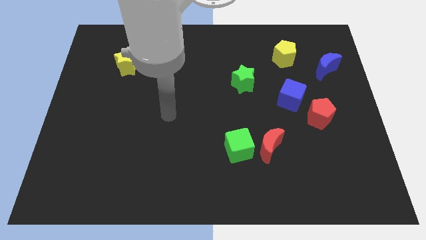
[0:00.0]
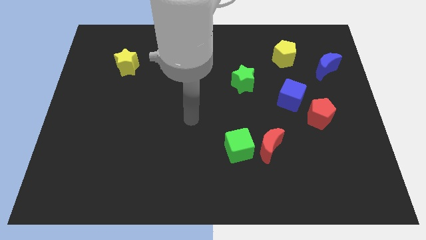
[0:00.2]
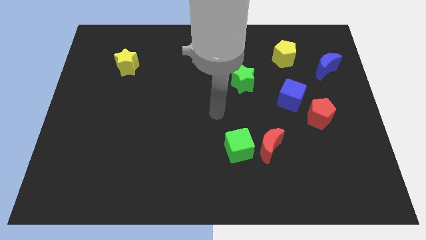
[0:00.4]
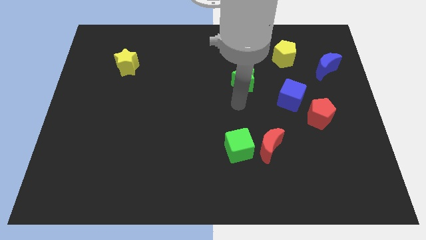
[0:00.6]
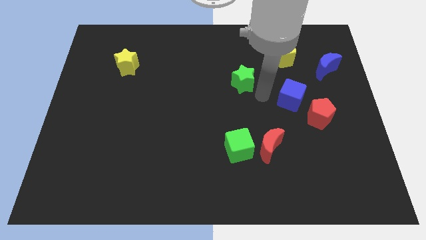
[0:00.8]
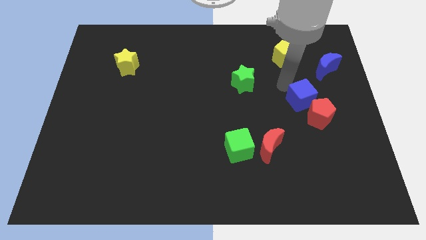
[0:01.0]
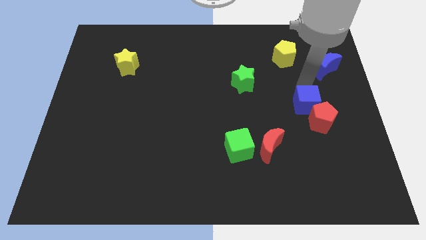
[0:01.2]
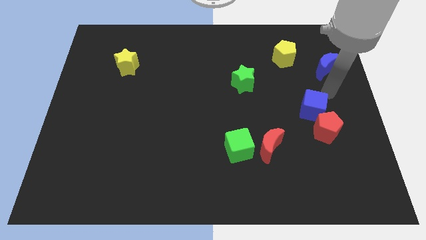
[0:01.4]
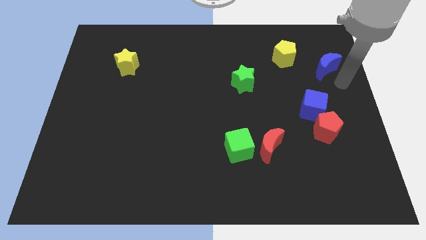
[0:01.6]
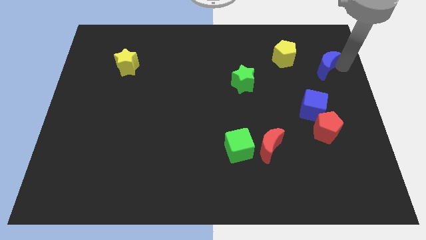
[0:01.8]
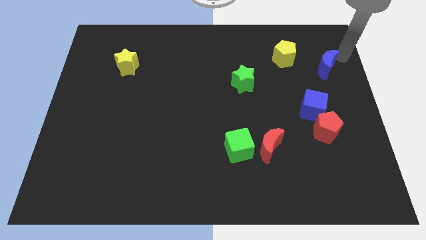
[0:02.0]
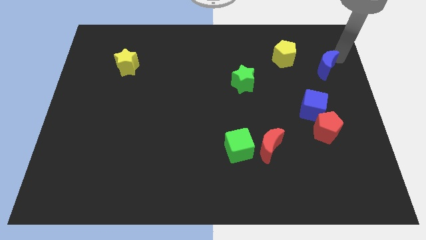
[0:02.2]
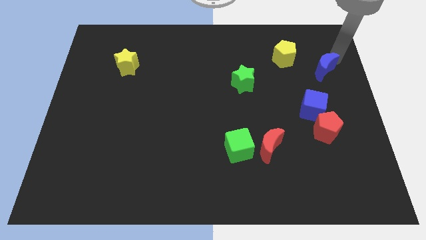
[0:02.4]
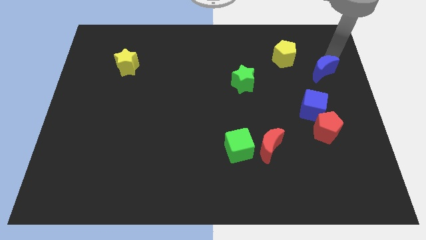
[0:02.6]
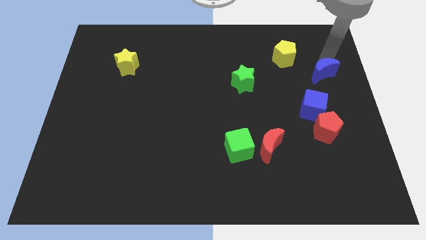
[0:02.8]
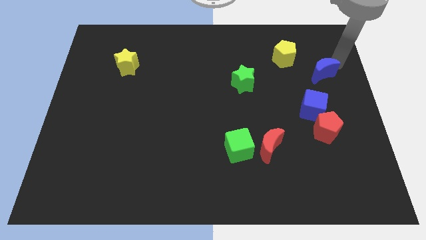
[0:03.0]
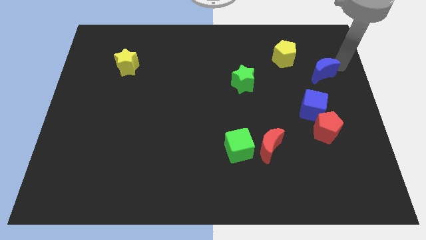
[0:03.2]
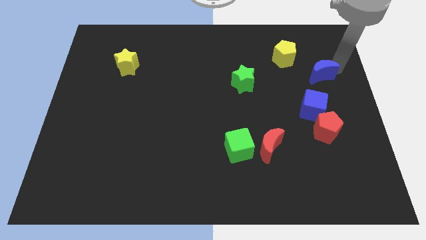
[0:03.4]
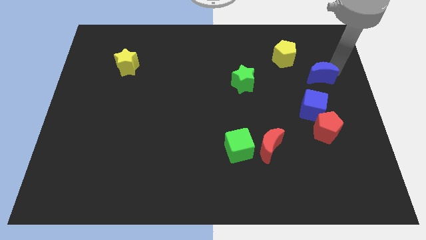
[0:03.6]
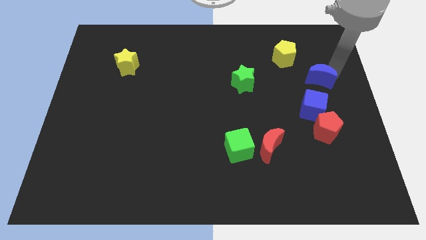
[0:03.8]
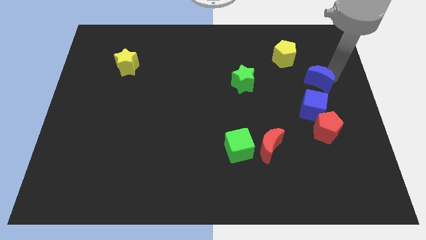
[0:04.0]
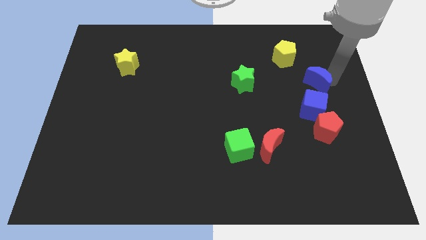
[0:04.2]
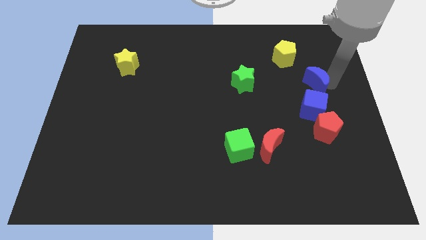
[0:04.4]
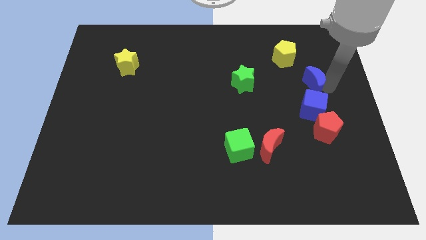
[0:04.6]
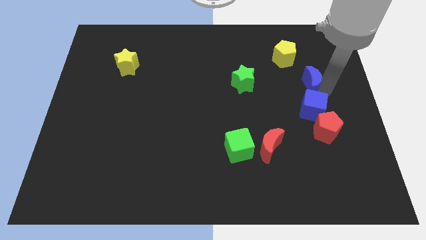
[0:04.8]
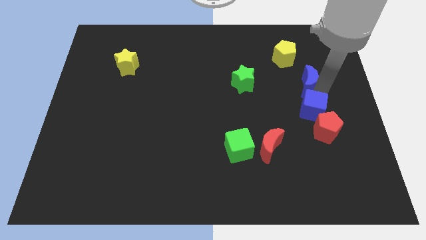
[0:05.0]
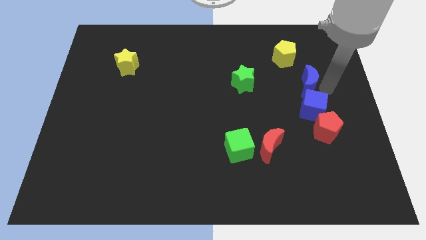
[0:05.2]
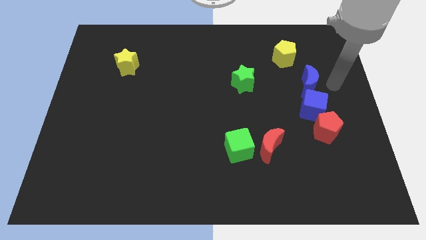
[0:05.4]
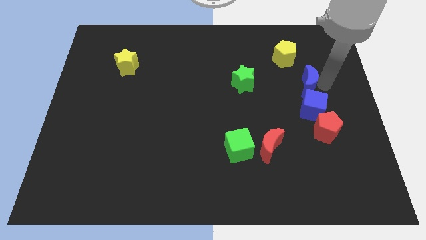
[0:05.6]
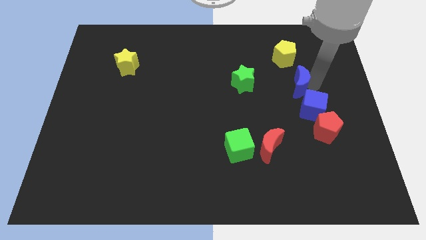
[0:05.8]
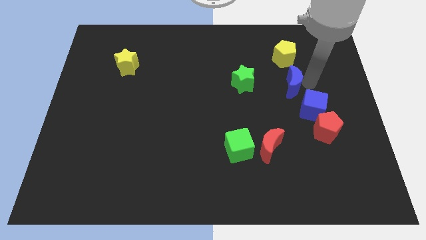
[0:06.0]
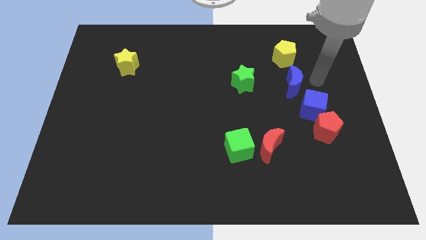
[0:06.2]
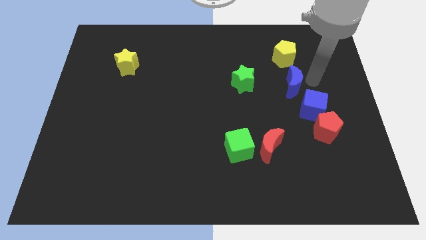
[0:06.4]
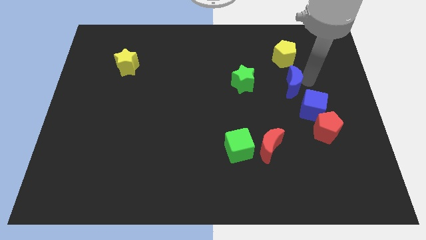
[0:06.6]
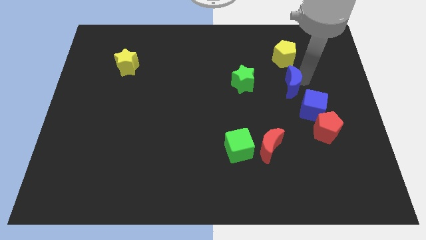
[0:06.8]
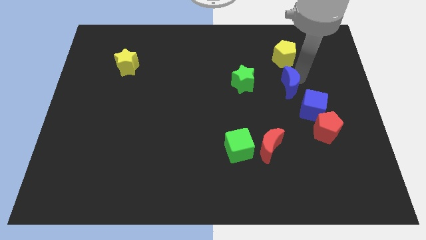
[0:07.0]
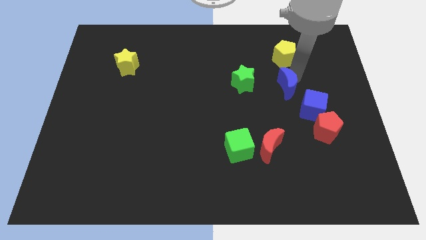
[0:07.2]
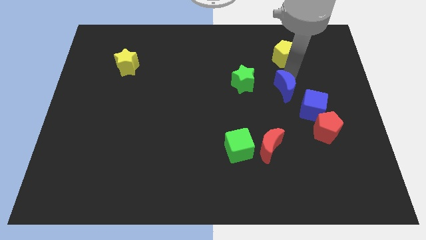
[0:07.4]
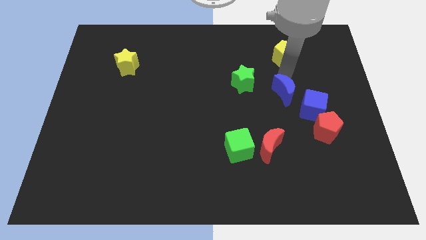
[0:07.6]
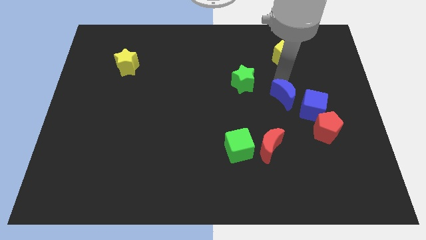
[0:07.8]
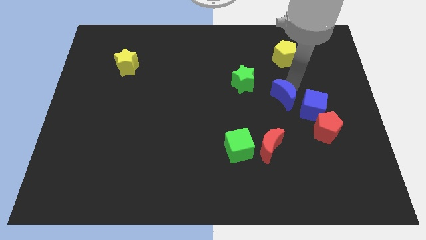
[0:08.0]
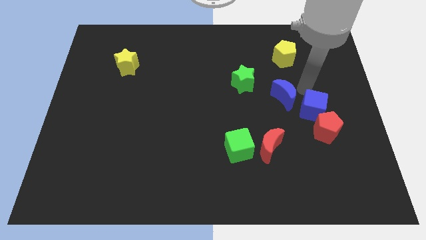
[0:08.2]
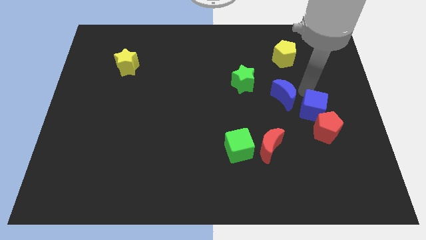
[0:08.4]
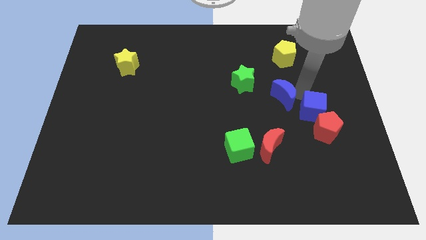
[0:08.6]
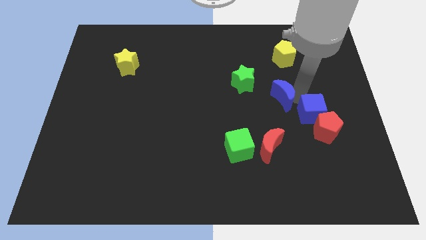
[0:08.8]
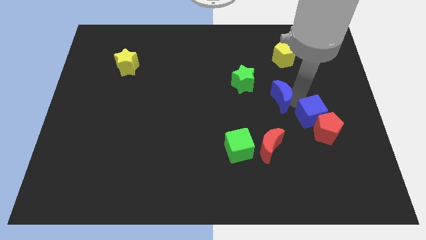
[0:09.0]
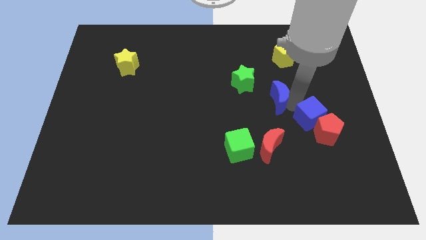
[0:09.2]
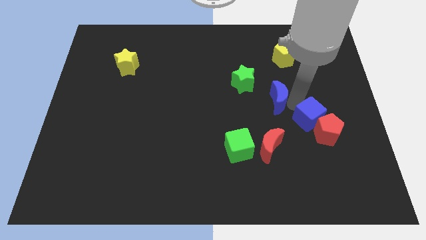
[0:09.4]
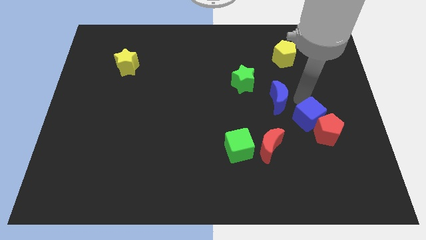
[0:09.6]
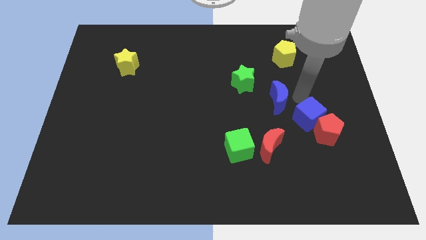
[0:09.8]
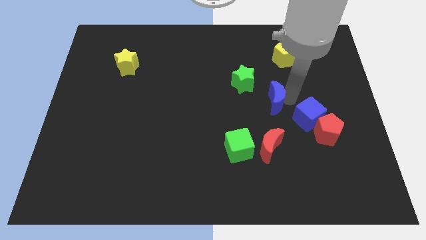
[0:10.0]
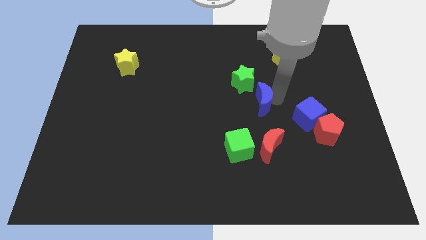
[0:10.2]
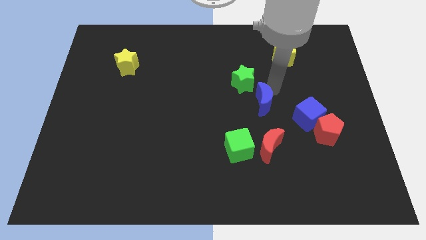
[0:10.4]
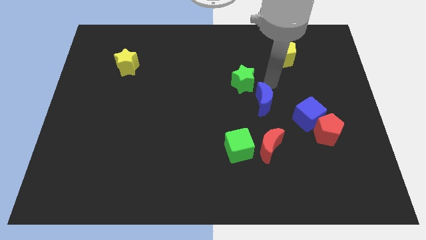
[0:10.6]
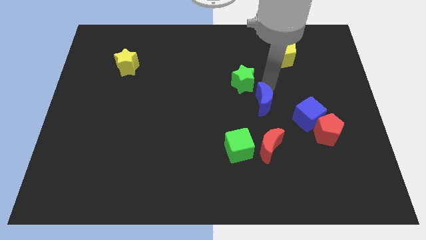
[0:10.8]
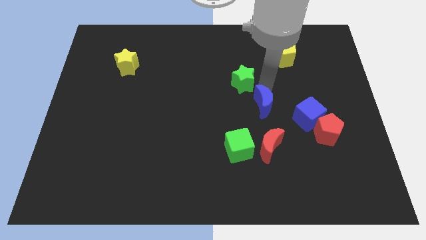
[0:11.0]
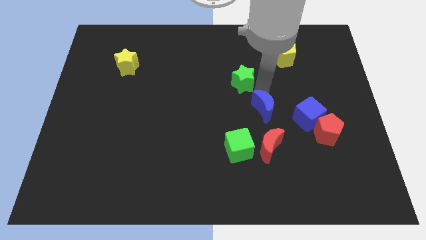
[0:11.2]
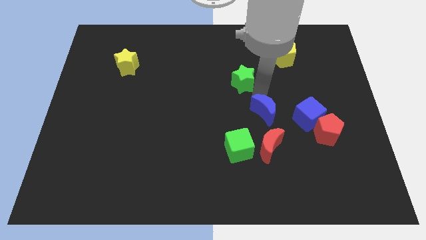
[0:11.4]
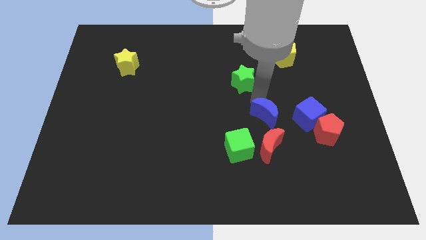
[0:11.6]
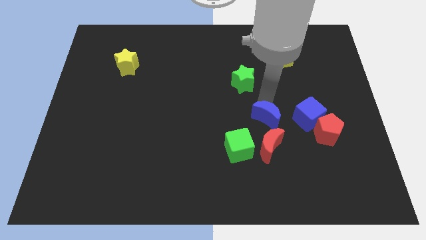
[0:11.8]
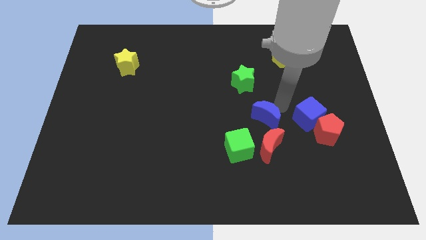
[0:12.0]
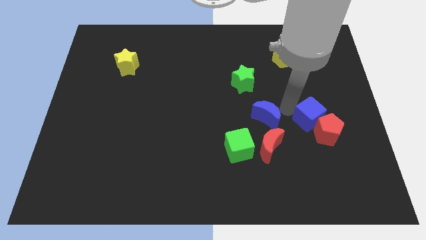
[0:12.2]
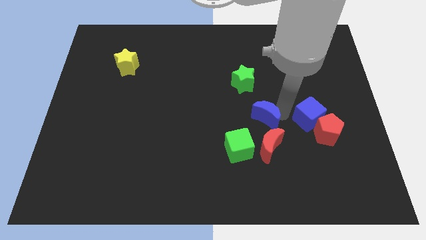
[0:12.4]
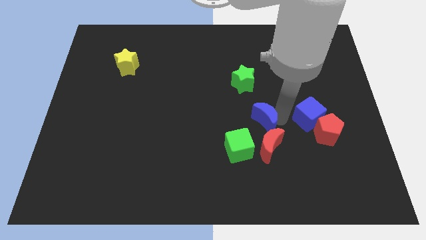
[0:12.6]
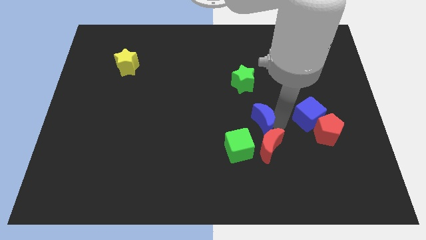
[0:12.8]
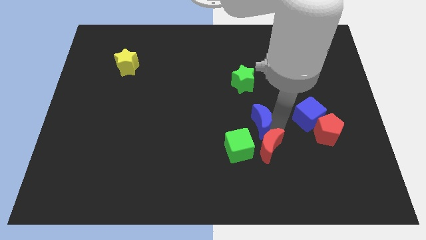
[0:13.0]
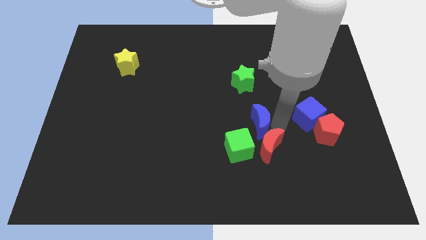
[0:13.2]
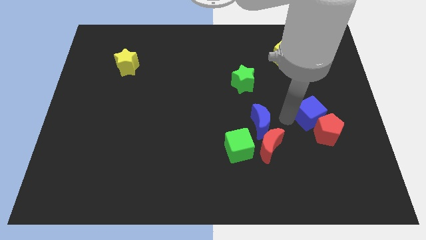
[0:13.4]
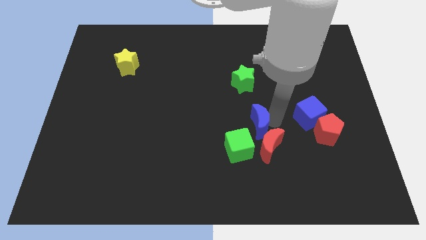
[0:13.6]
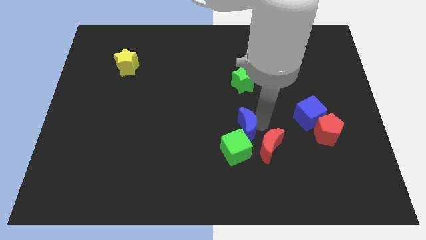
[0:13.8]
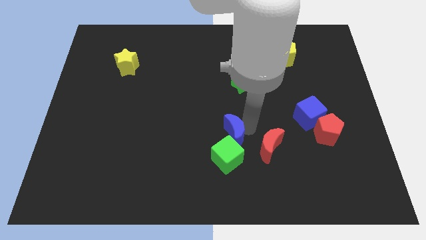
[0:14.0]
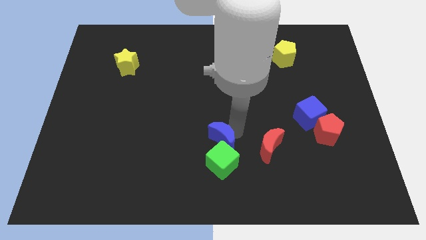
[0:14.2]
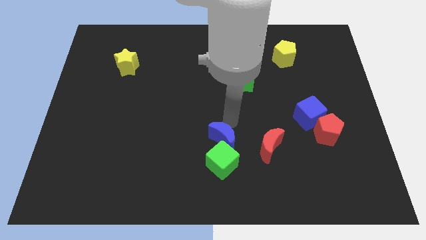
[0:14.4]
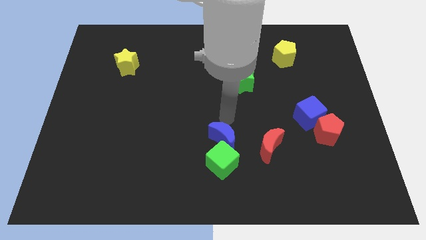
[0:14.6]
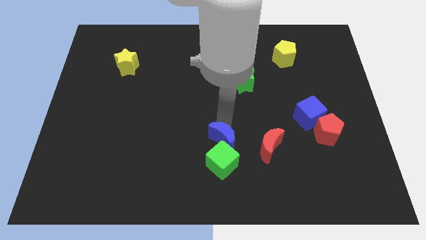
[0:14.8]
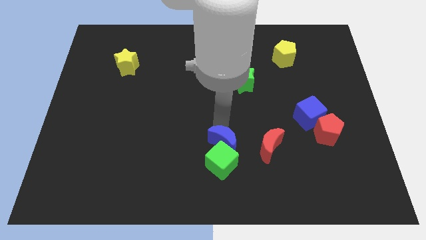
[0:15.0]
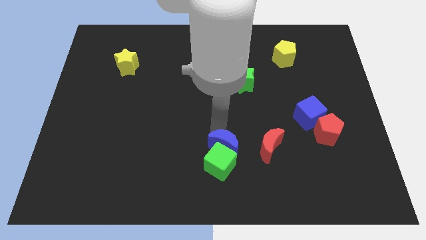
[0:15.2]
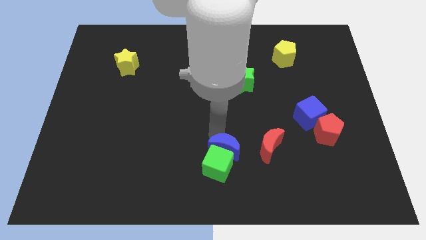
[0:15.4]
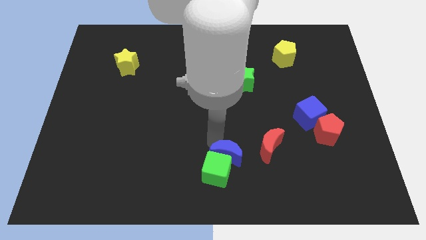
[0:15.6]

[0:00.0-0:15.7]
put the blue moon to the bottom side
